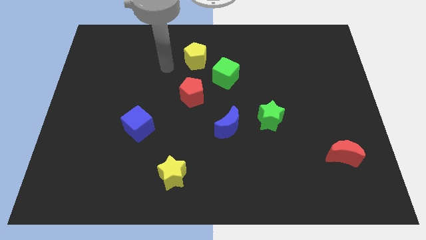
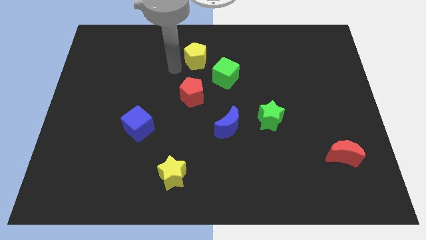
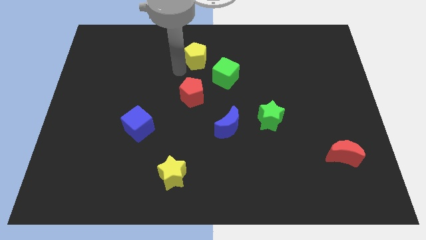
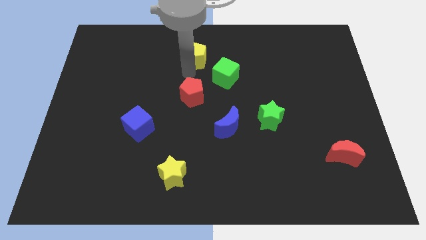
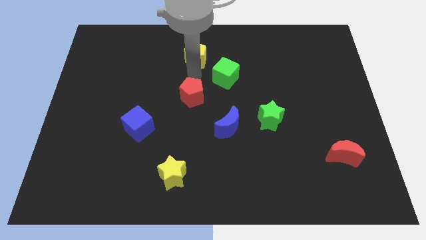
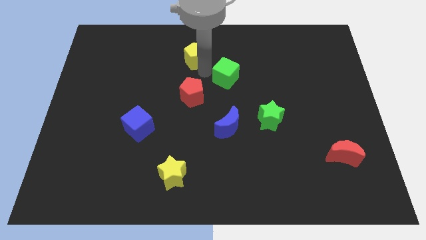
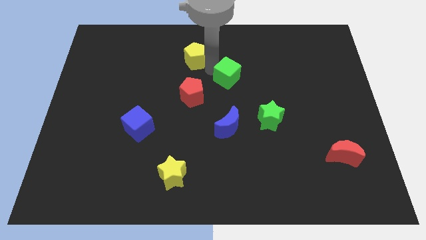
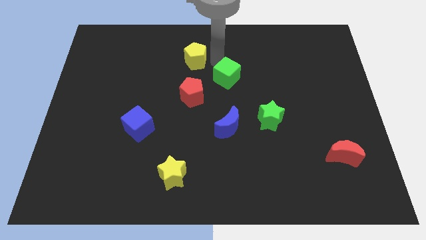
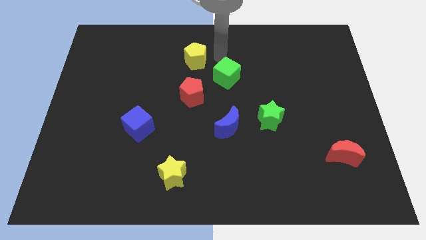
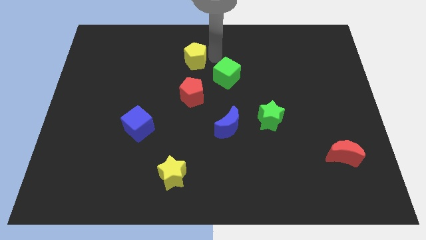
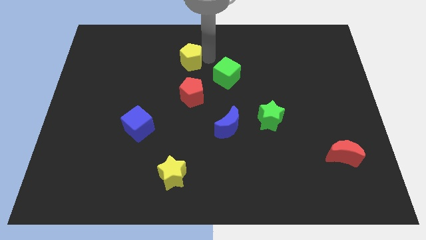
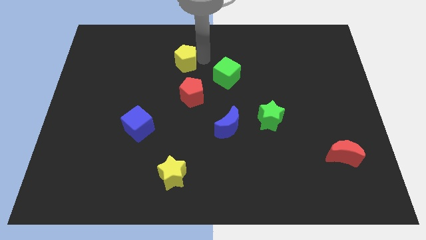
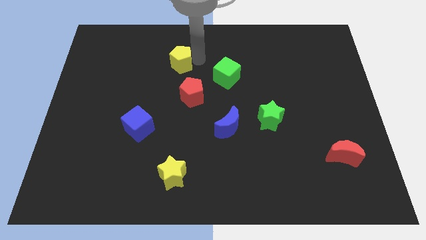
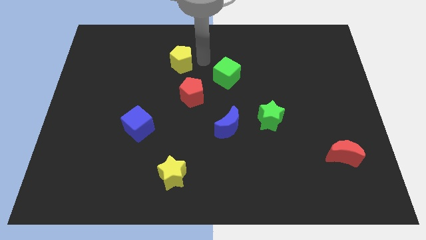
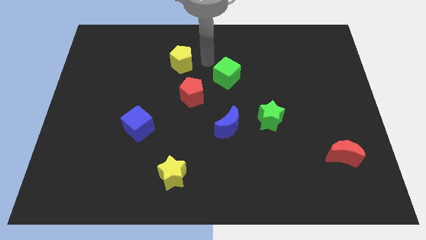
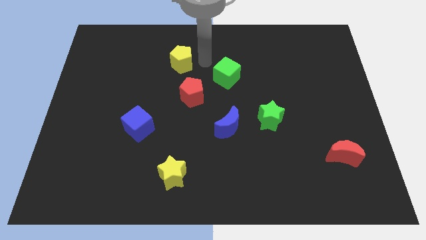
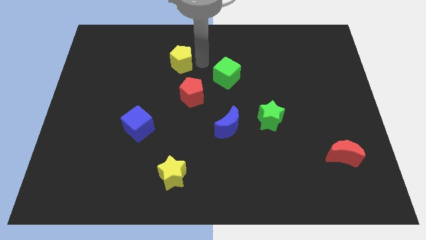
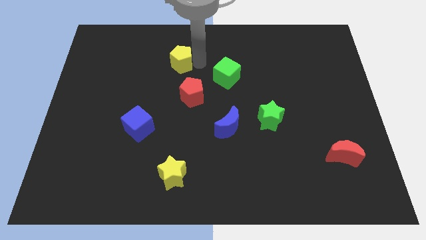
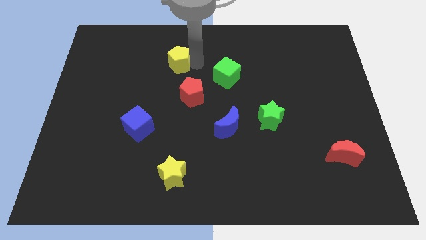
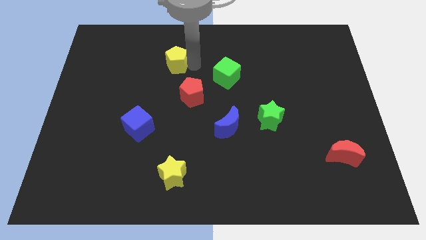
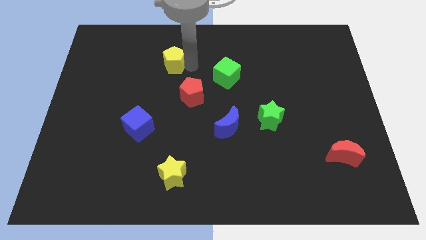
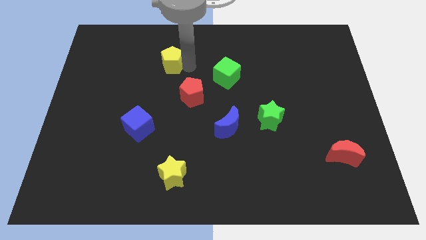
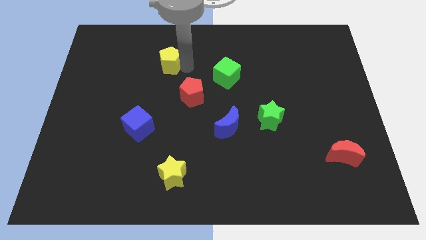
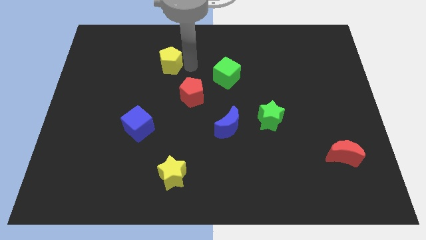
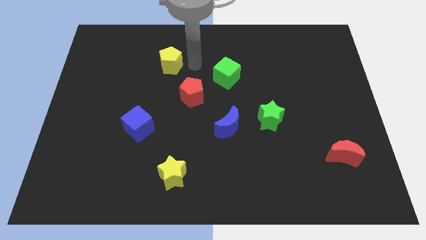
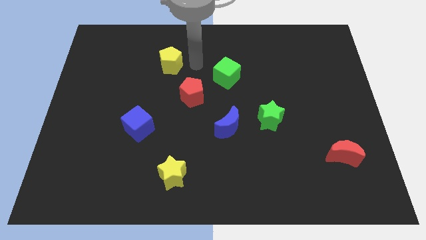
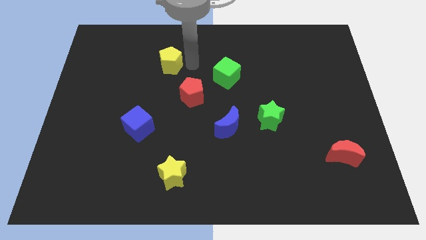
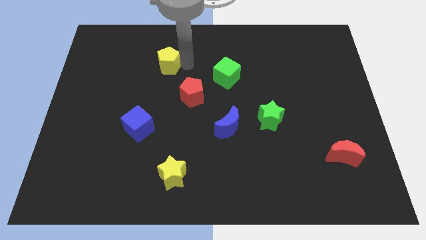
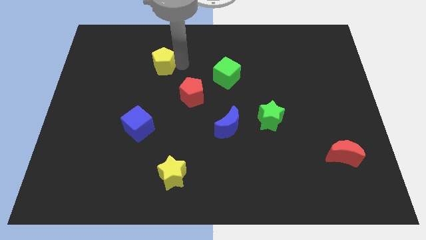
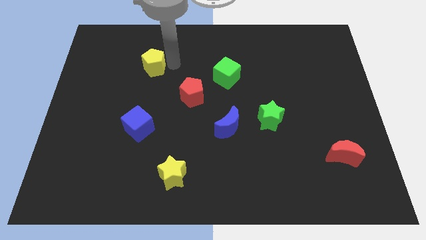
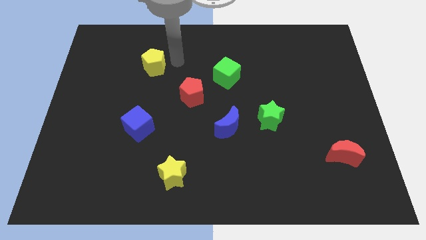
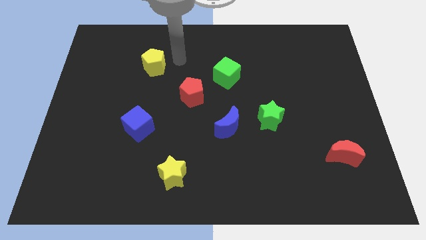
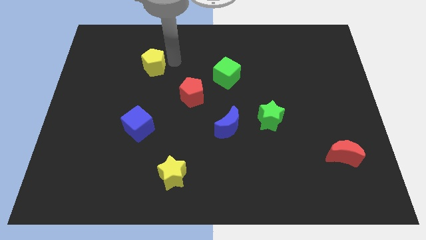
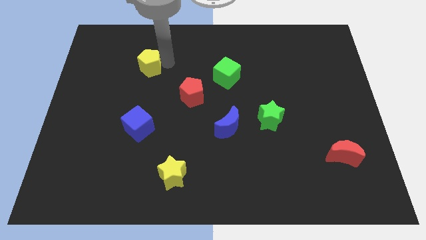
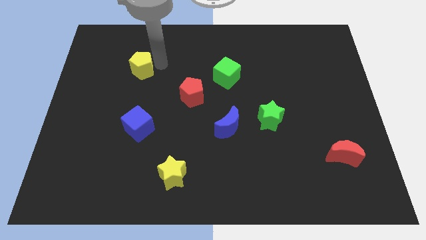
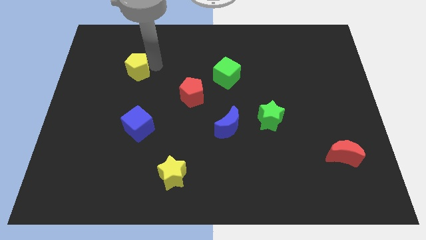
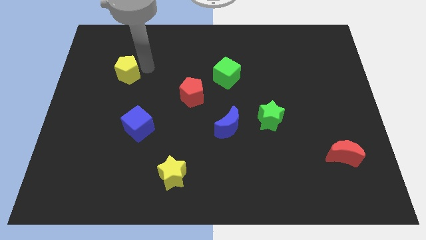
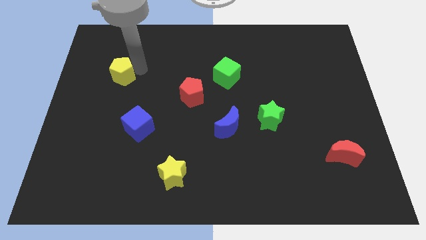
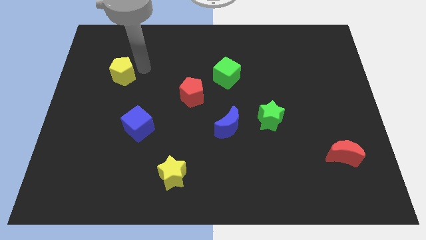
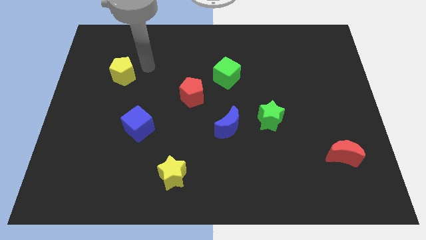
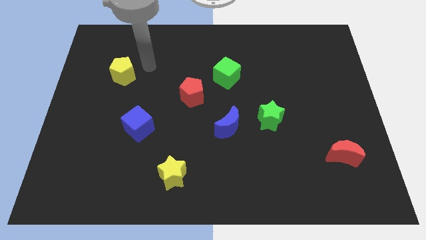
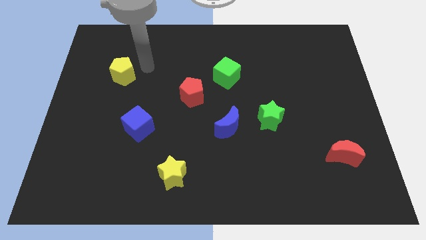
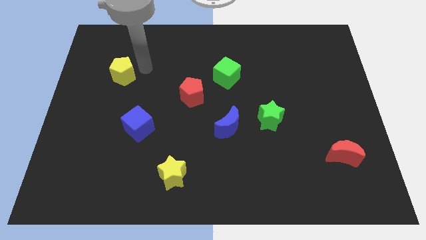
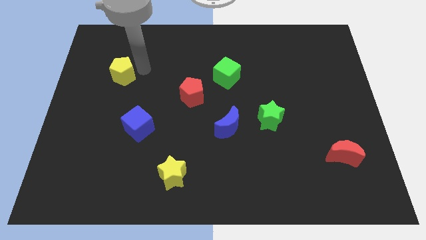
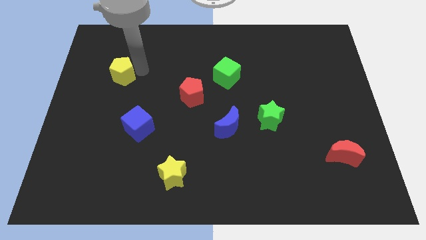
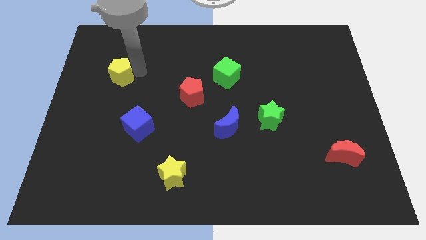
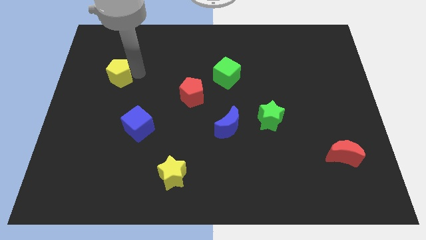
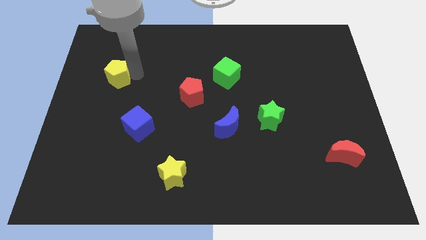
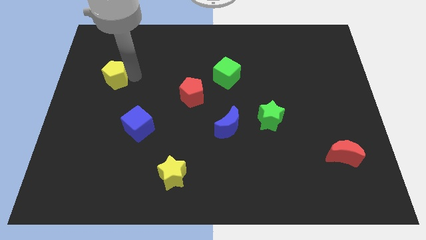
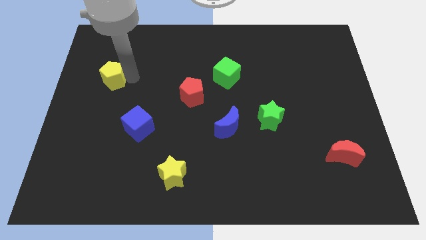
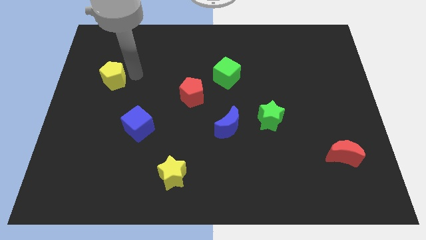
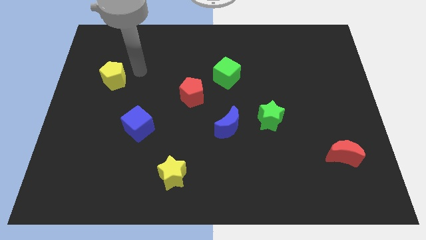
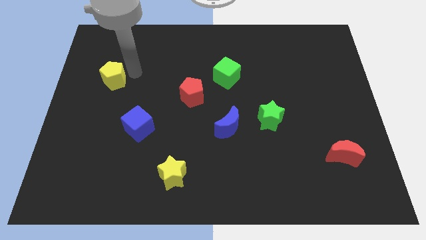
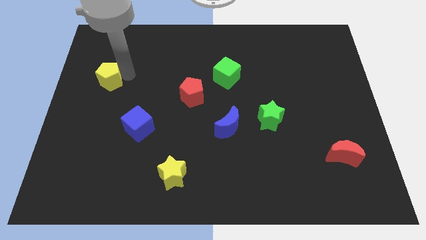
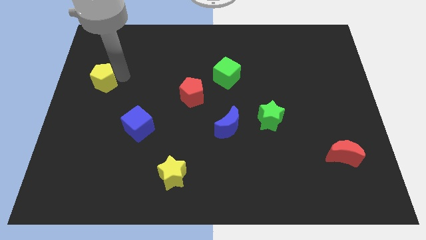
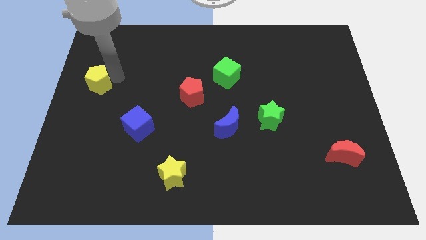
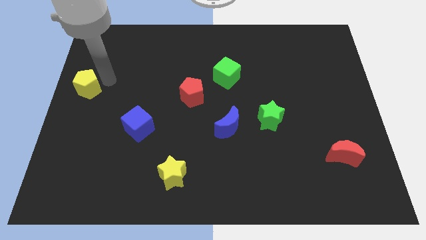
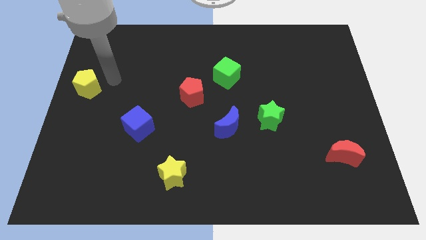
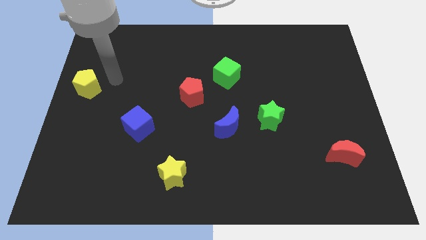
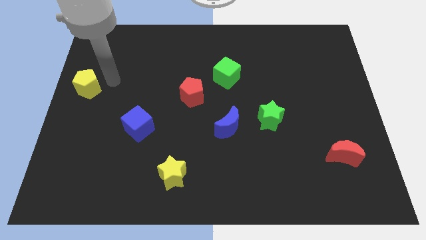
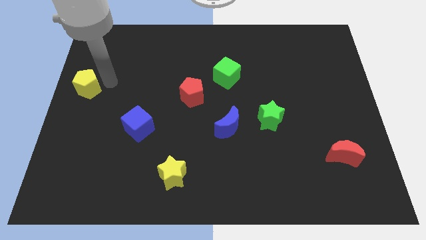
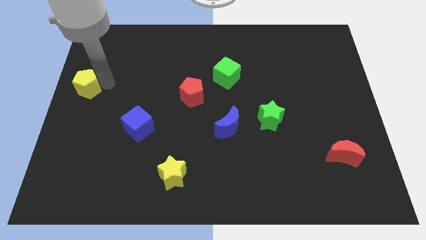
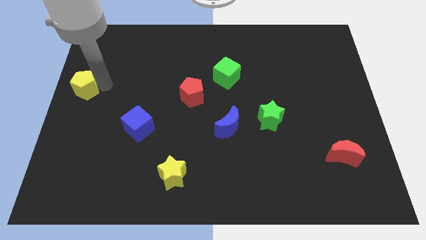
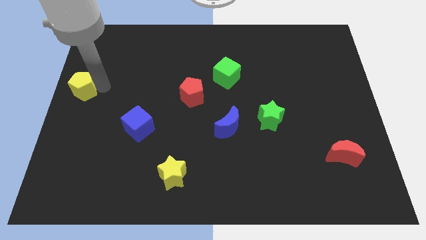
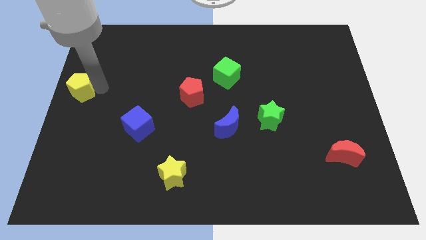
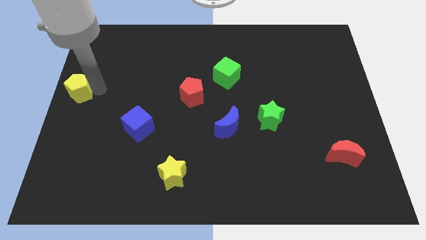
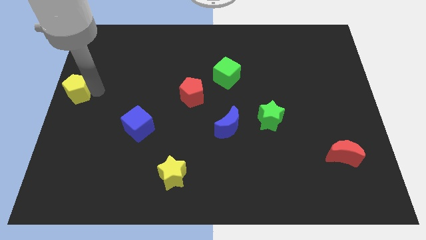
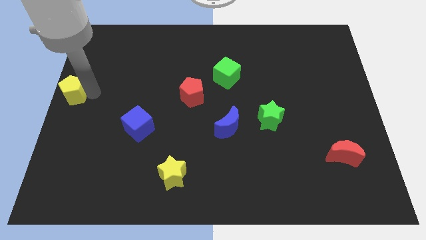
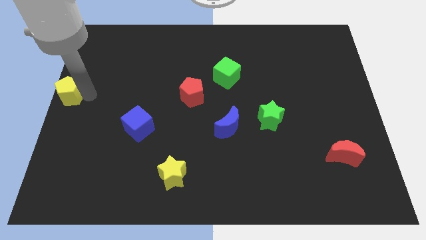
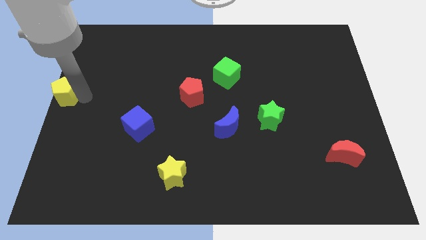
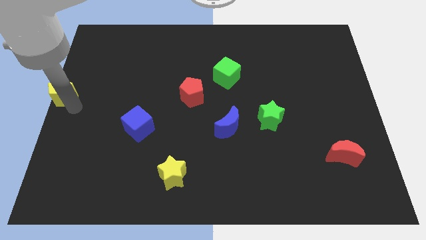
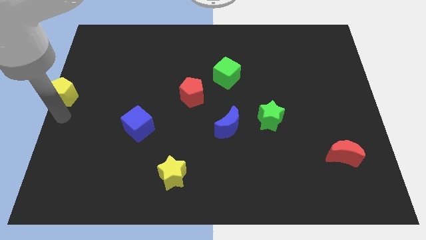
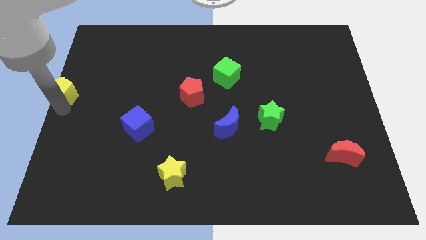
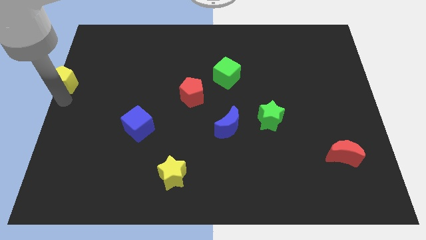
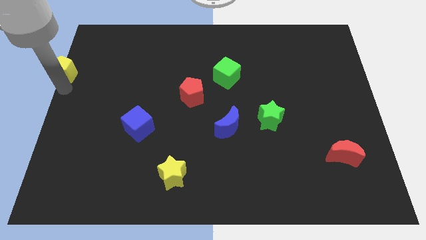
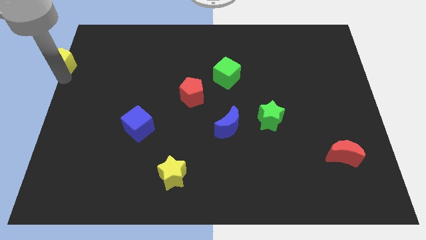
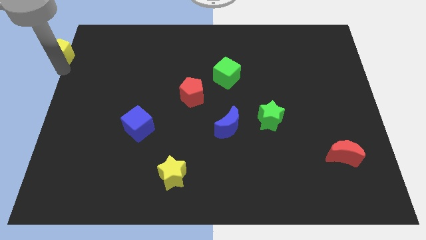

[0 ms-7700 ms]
push the yellow pentagon to the top left
